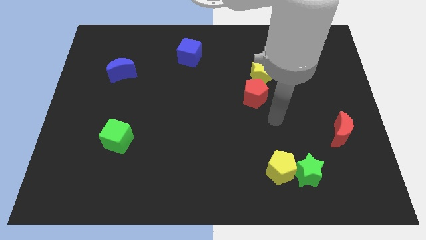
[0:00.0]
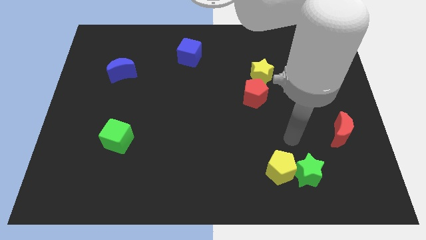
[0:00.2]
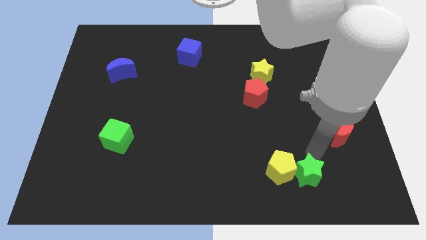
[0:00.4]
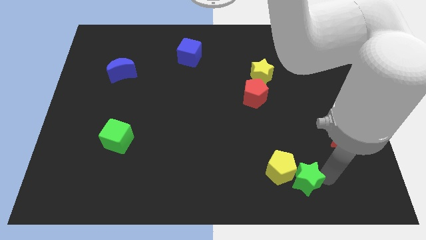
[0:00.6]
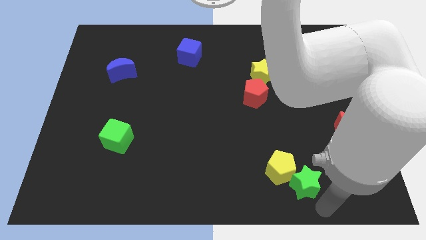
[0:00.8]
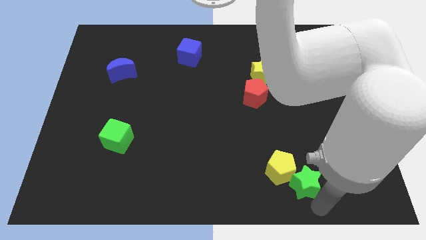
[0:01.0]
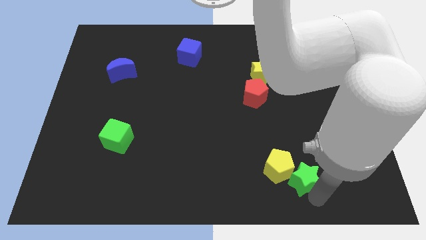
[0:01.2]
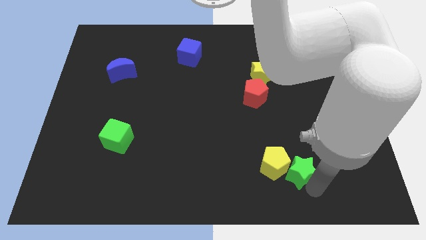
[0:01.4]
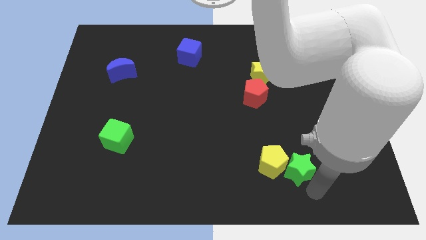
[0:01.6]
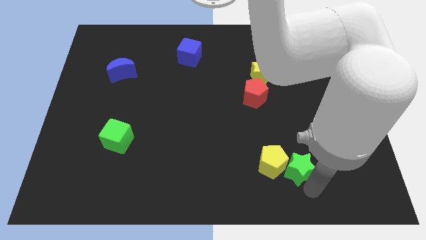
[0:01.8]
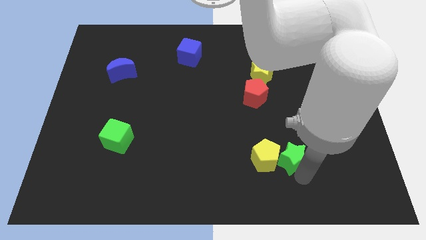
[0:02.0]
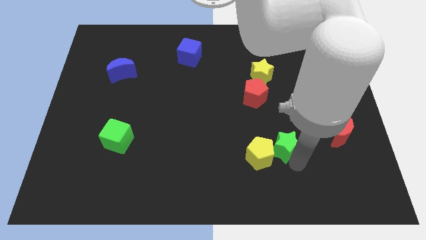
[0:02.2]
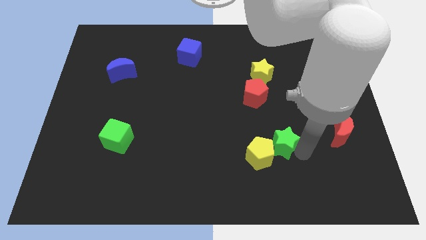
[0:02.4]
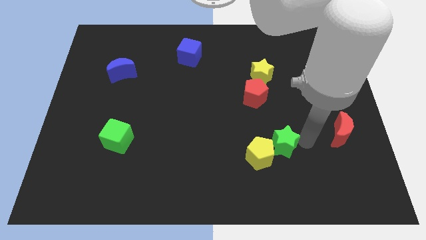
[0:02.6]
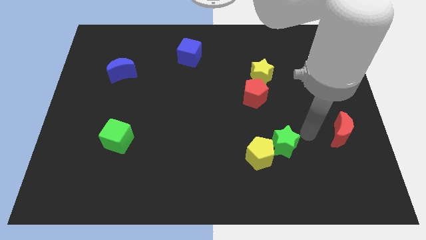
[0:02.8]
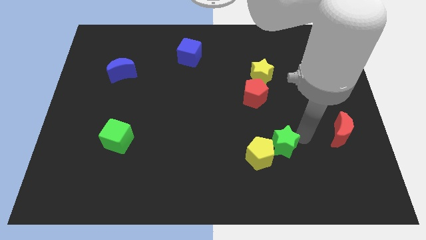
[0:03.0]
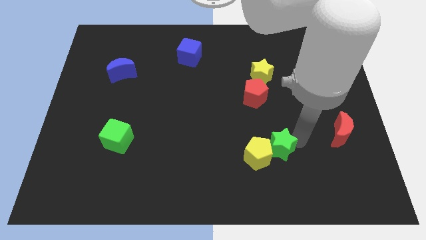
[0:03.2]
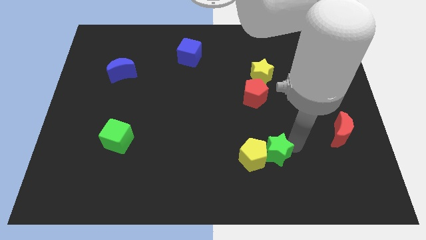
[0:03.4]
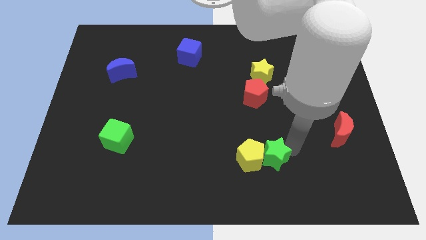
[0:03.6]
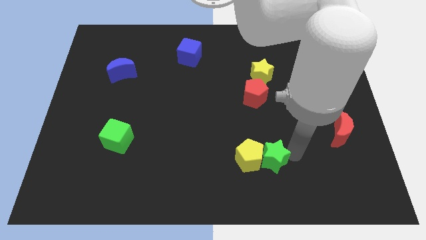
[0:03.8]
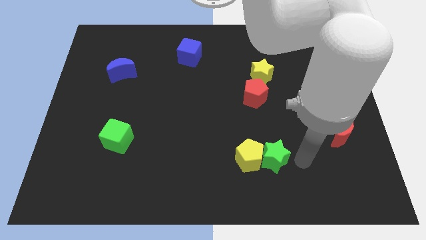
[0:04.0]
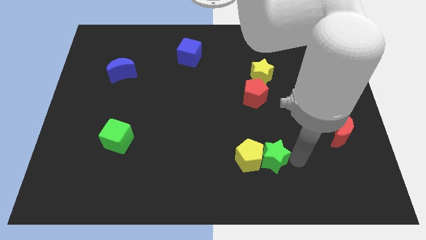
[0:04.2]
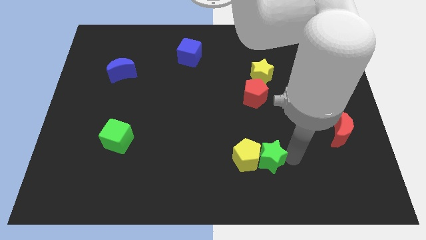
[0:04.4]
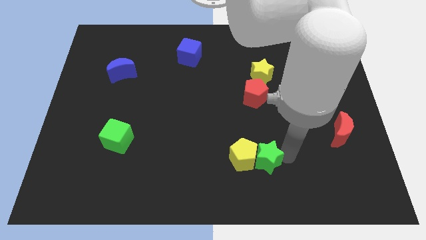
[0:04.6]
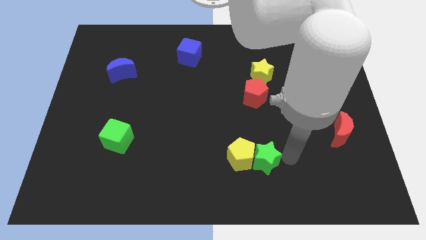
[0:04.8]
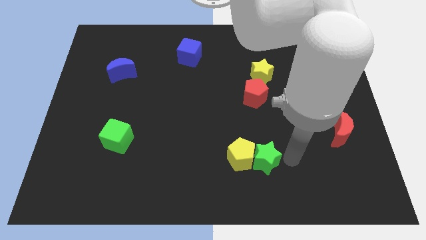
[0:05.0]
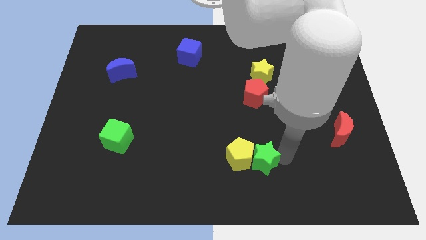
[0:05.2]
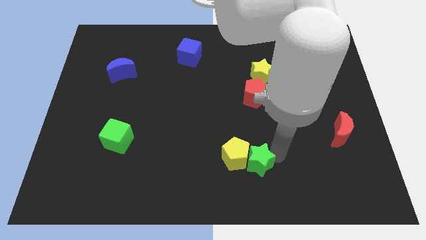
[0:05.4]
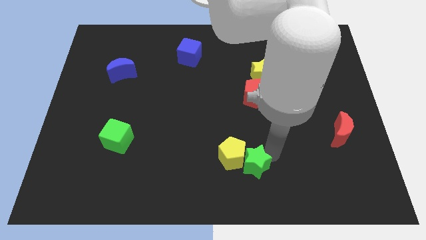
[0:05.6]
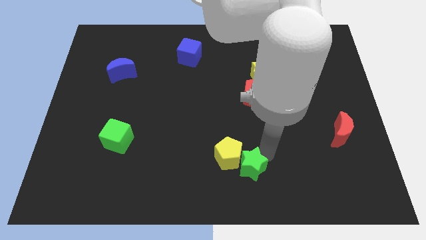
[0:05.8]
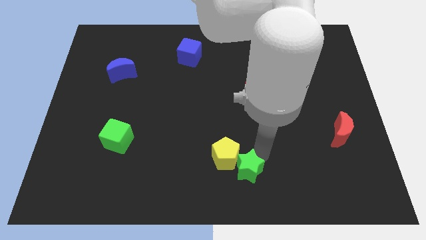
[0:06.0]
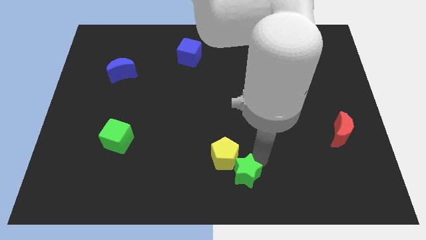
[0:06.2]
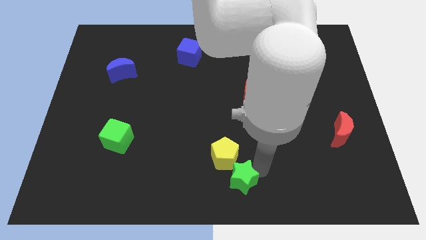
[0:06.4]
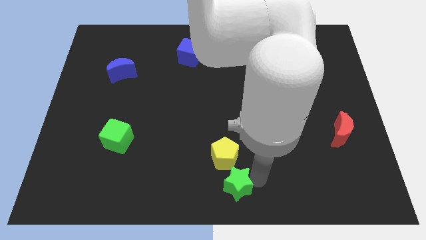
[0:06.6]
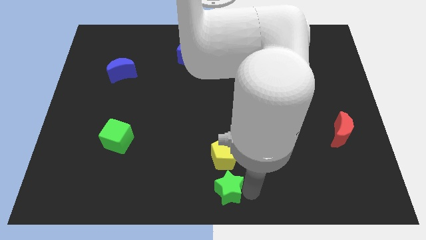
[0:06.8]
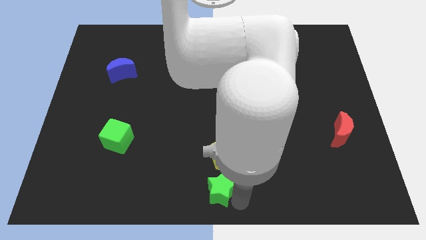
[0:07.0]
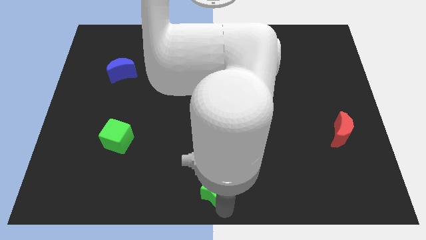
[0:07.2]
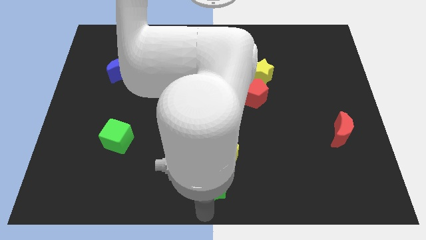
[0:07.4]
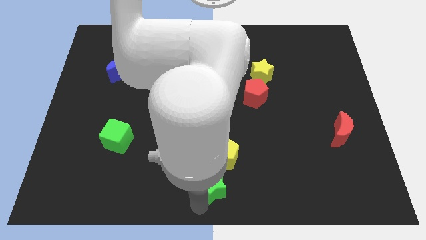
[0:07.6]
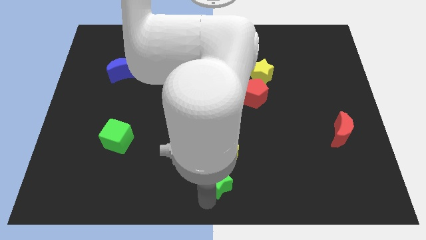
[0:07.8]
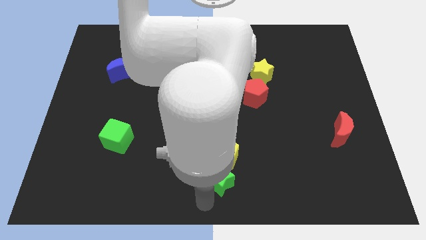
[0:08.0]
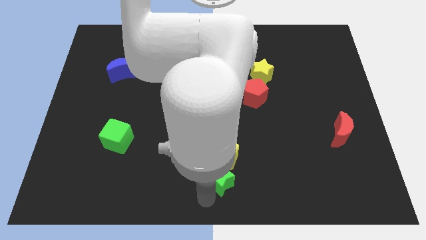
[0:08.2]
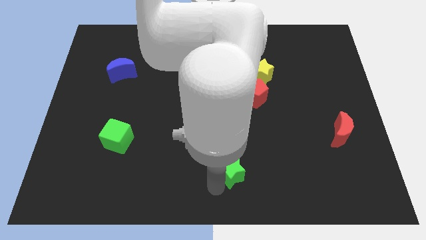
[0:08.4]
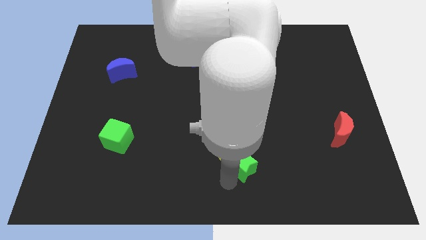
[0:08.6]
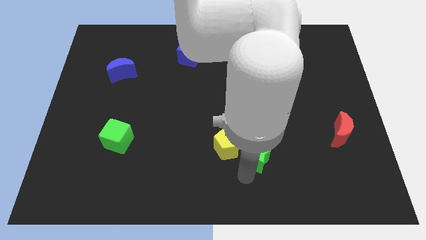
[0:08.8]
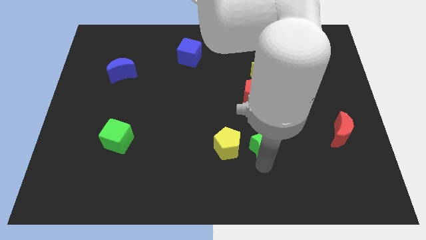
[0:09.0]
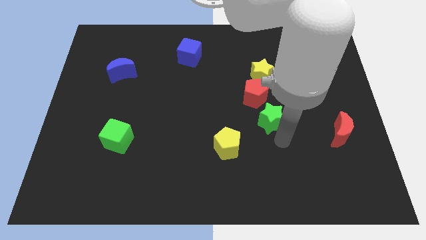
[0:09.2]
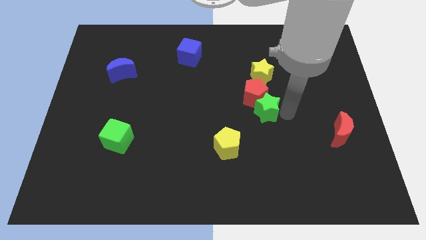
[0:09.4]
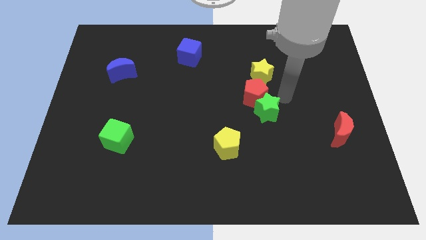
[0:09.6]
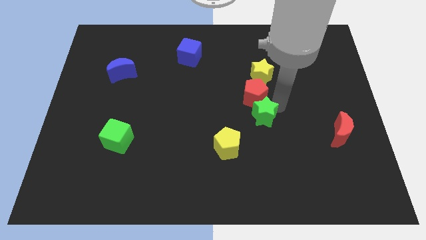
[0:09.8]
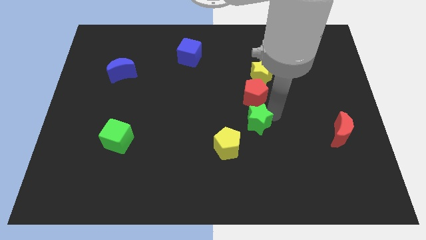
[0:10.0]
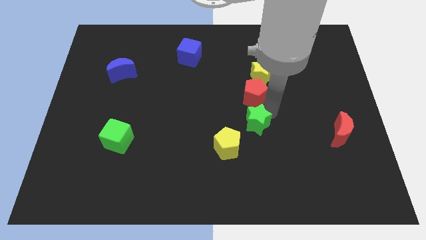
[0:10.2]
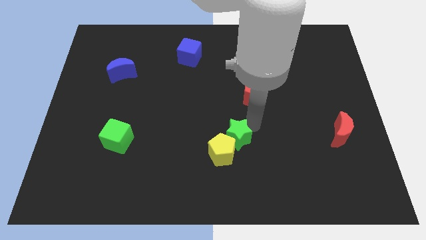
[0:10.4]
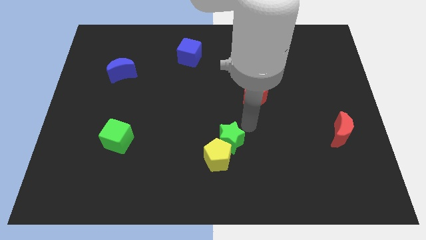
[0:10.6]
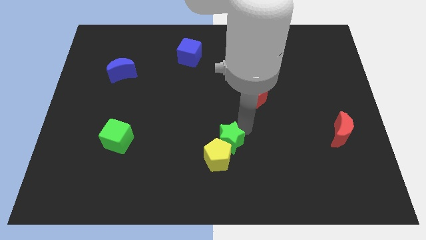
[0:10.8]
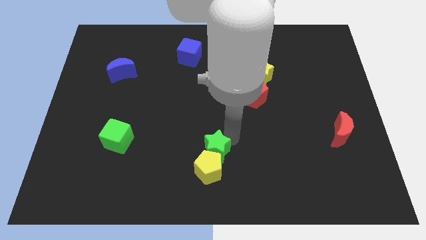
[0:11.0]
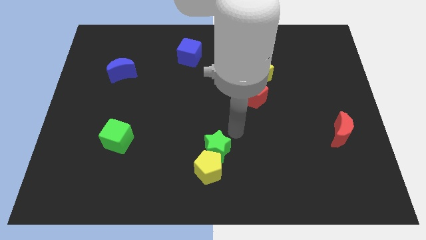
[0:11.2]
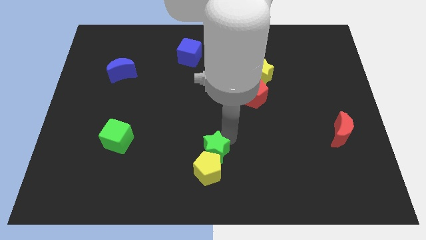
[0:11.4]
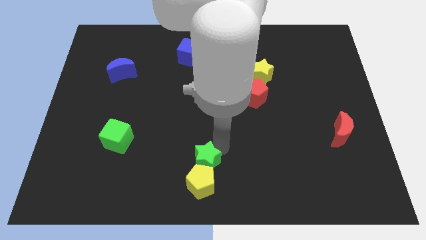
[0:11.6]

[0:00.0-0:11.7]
push the green star left

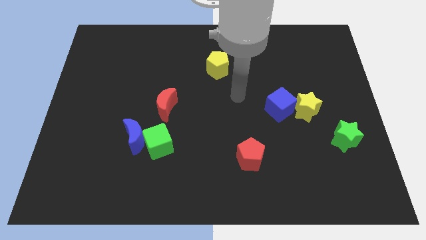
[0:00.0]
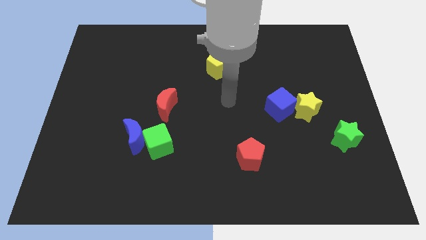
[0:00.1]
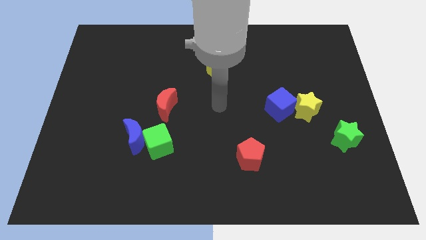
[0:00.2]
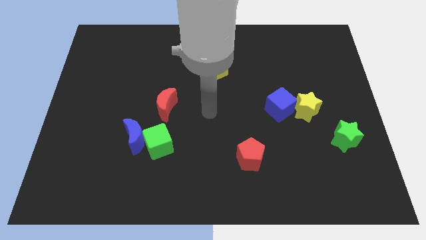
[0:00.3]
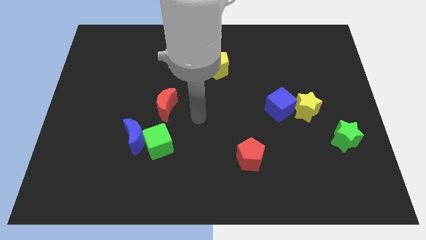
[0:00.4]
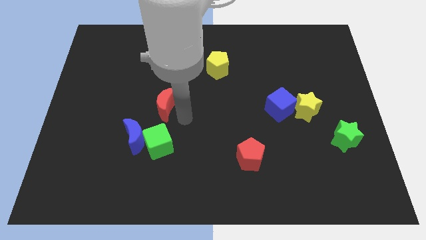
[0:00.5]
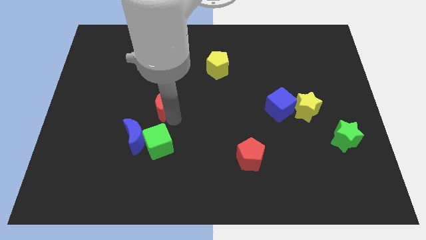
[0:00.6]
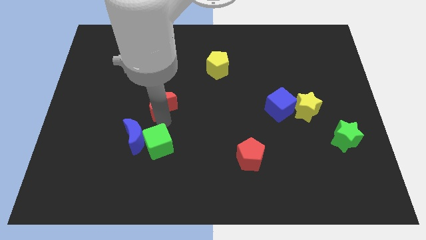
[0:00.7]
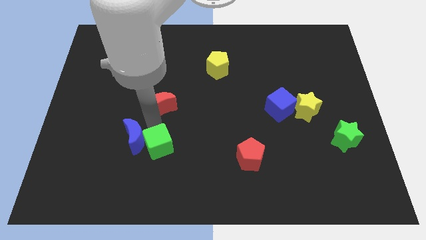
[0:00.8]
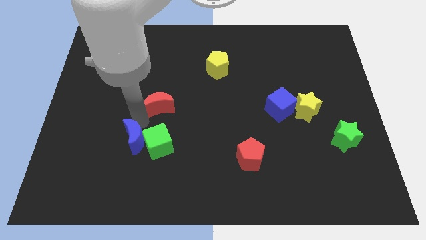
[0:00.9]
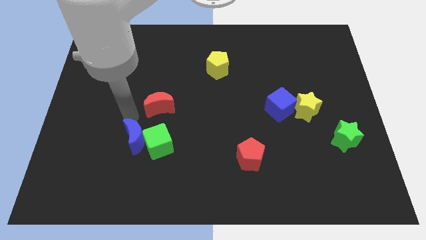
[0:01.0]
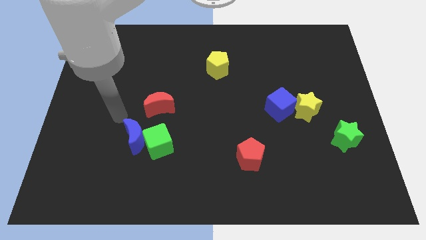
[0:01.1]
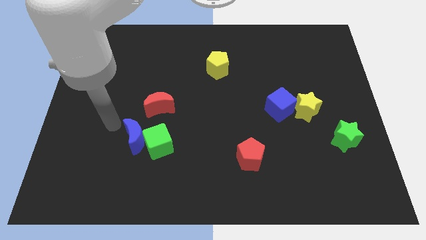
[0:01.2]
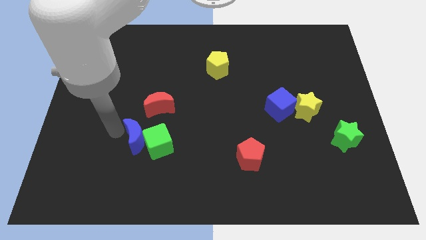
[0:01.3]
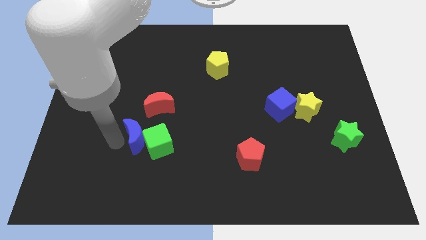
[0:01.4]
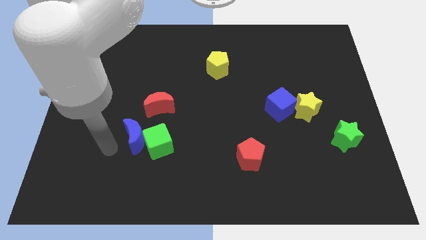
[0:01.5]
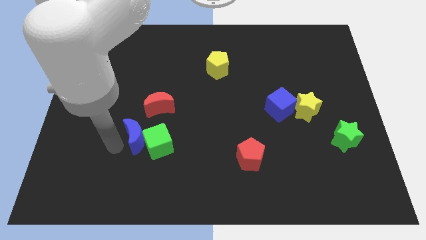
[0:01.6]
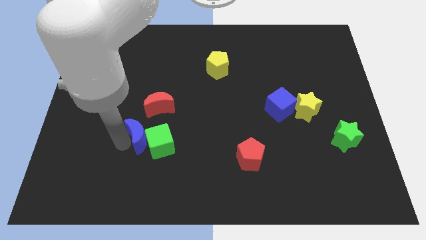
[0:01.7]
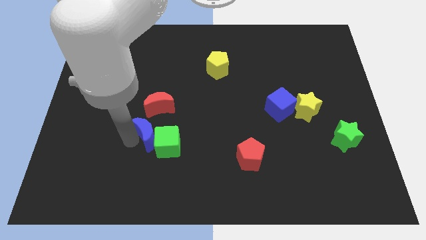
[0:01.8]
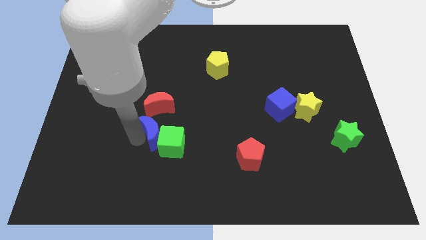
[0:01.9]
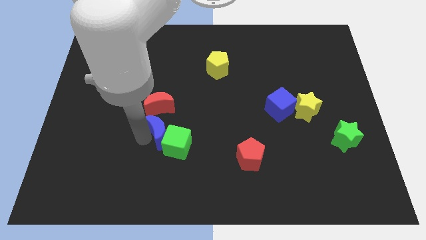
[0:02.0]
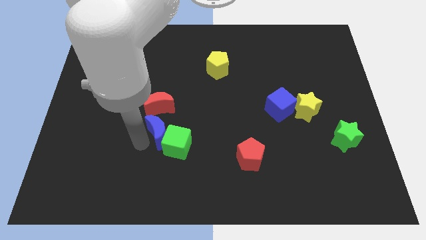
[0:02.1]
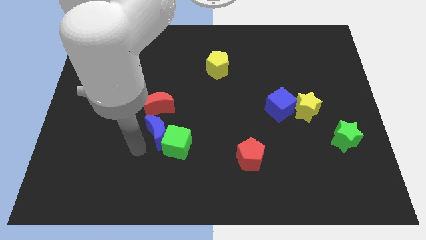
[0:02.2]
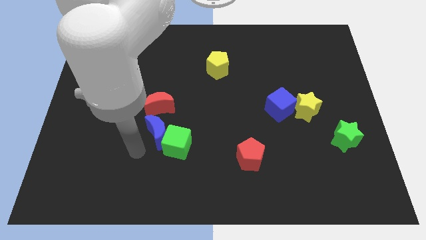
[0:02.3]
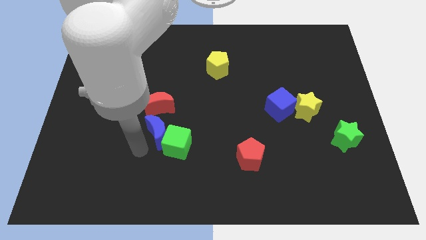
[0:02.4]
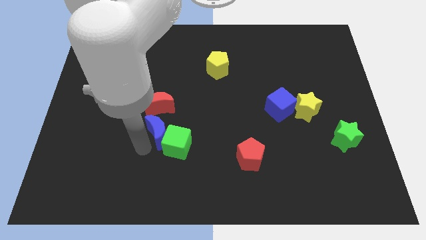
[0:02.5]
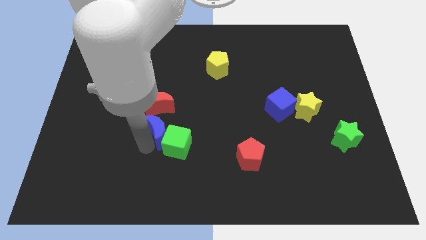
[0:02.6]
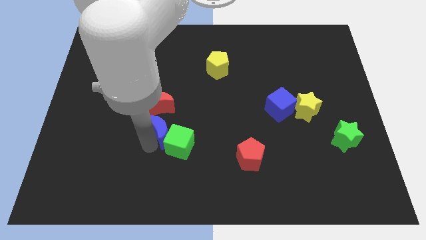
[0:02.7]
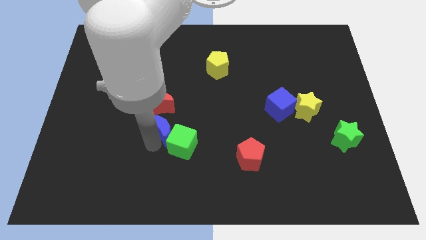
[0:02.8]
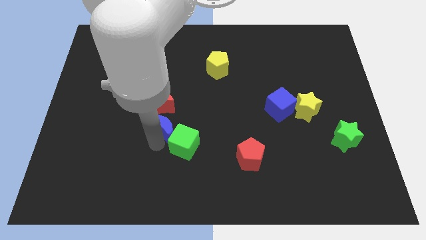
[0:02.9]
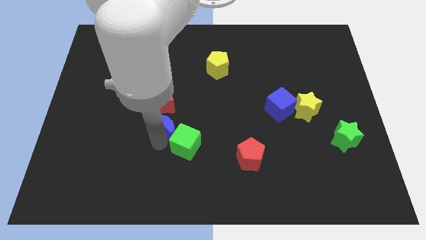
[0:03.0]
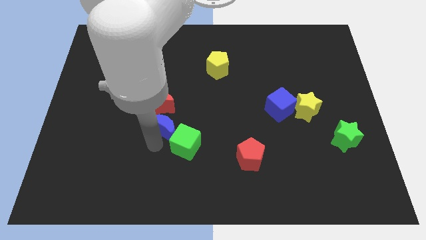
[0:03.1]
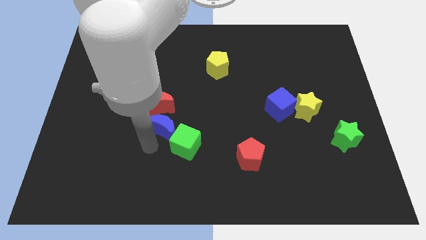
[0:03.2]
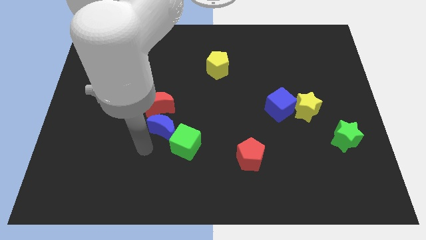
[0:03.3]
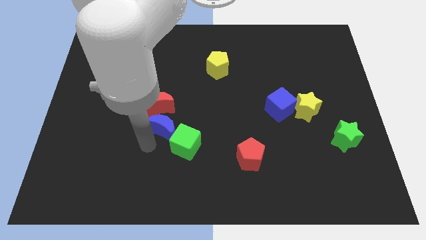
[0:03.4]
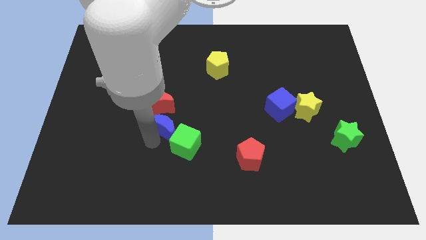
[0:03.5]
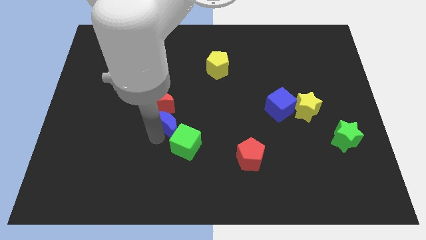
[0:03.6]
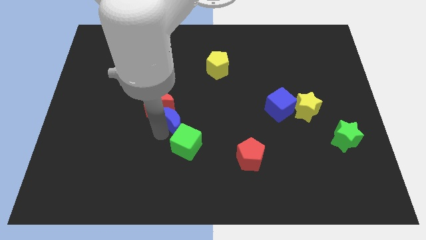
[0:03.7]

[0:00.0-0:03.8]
slide the blue moon a little diagonally up and right
